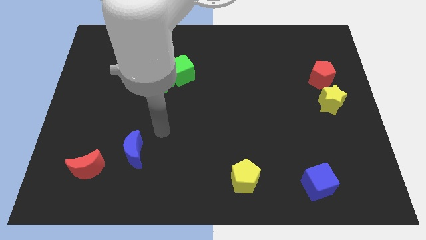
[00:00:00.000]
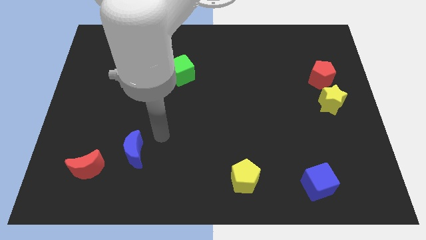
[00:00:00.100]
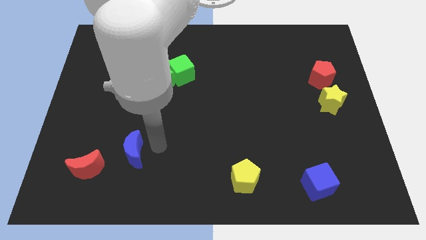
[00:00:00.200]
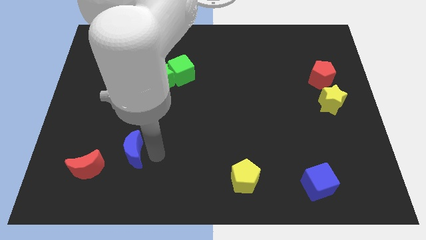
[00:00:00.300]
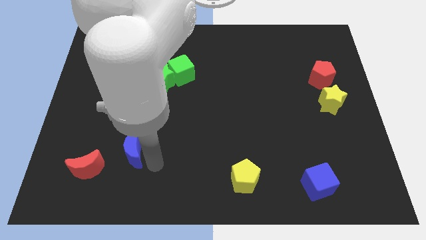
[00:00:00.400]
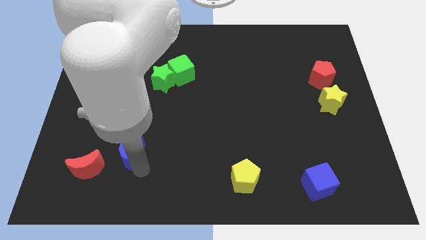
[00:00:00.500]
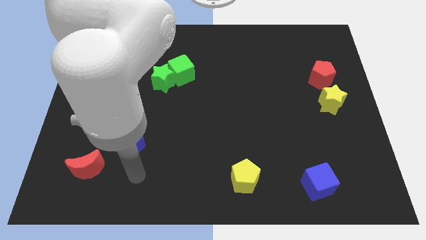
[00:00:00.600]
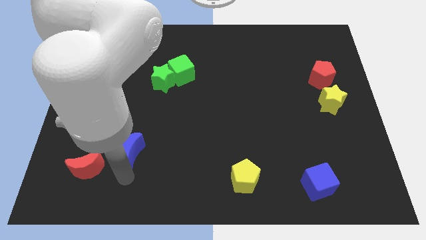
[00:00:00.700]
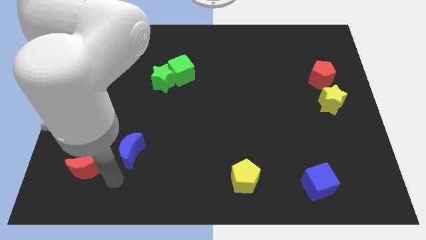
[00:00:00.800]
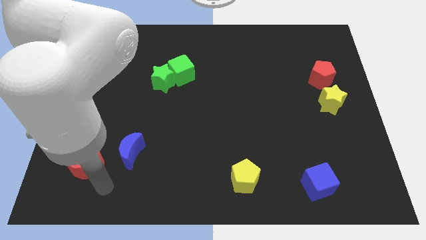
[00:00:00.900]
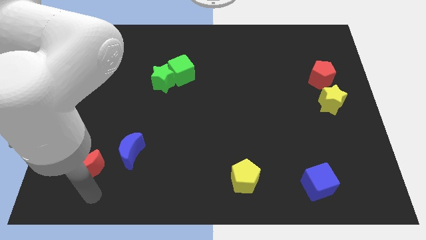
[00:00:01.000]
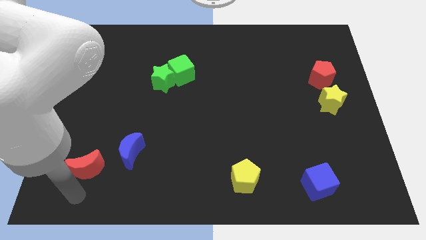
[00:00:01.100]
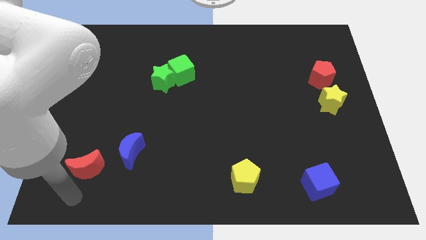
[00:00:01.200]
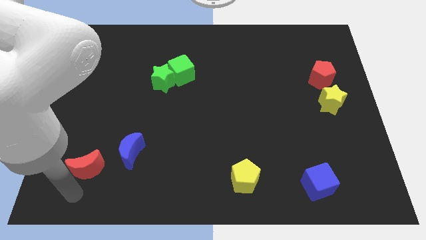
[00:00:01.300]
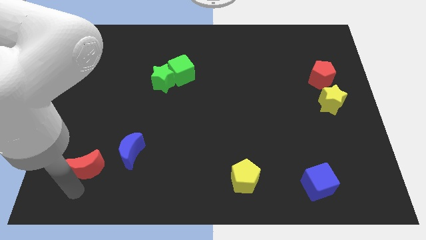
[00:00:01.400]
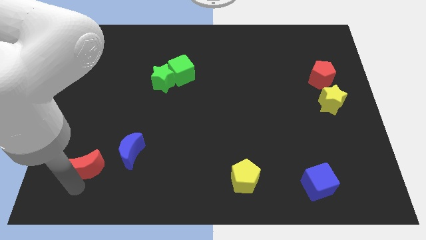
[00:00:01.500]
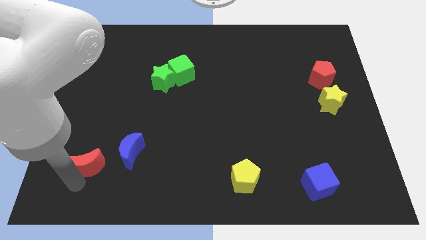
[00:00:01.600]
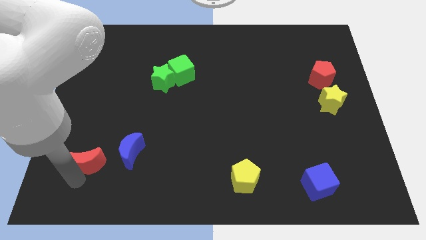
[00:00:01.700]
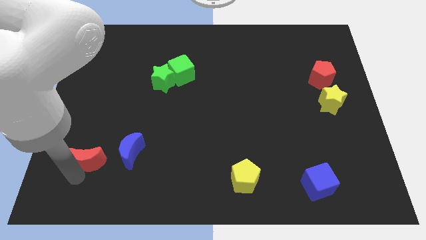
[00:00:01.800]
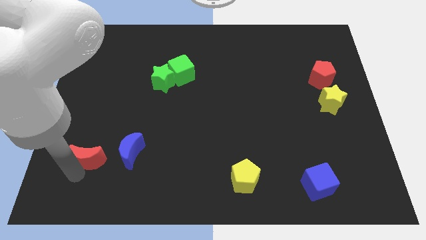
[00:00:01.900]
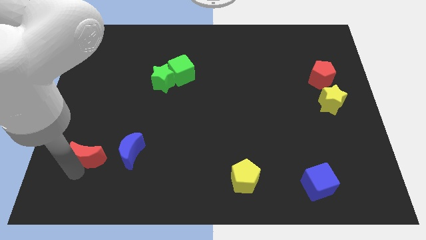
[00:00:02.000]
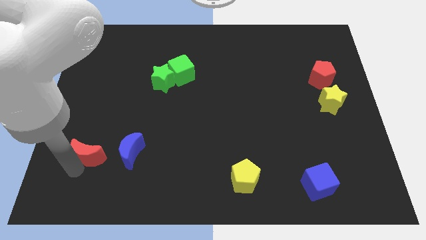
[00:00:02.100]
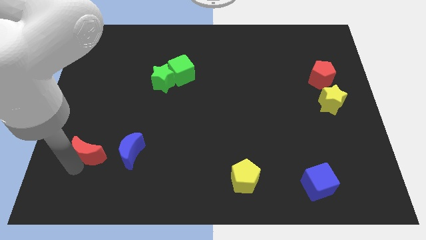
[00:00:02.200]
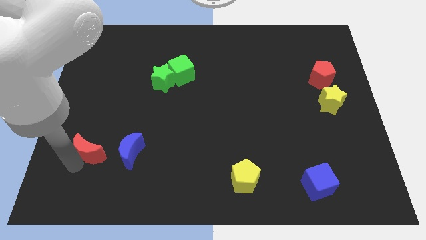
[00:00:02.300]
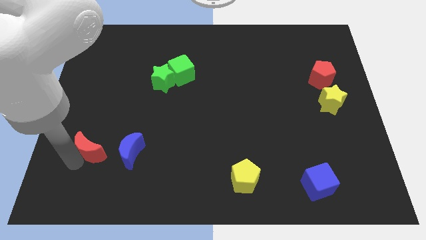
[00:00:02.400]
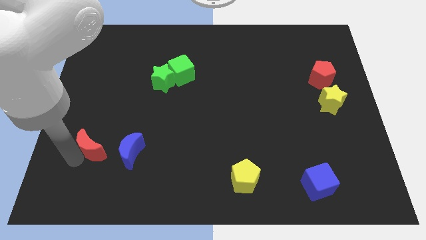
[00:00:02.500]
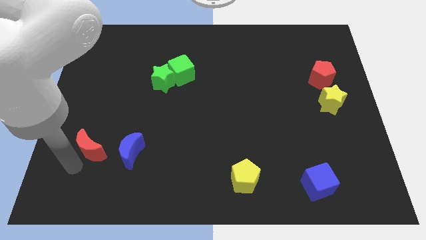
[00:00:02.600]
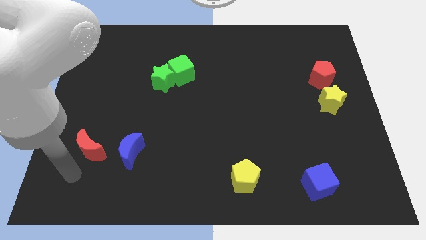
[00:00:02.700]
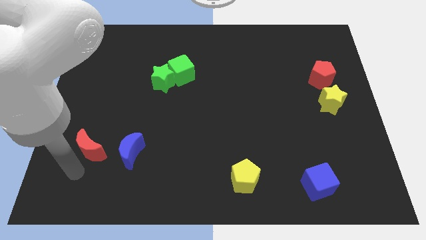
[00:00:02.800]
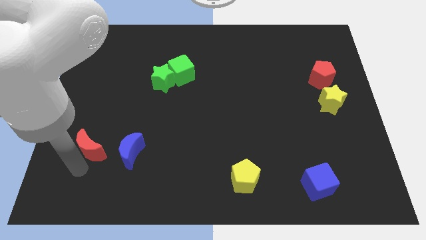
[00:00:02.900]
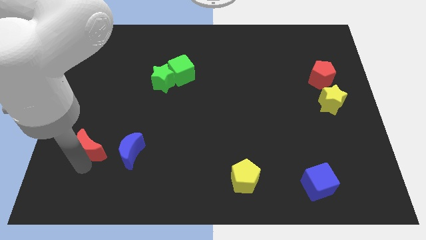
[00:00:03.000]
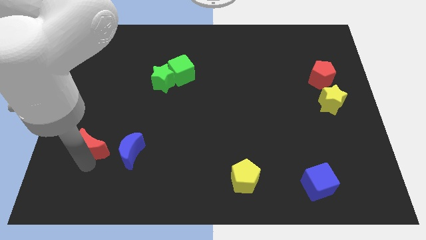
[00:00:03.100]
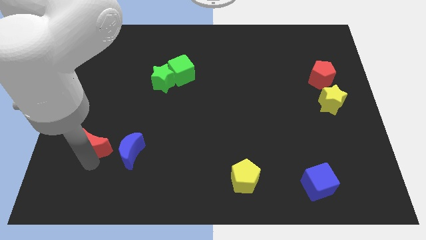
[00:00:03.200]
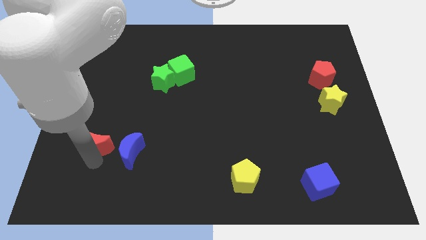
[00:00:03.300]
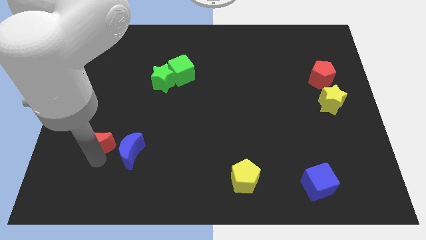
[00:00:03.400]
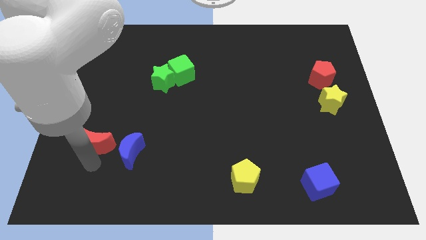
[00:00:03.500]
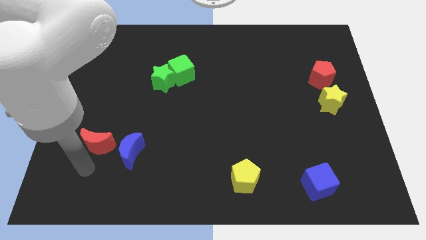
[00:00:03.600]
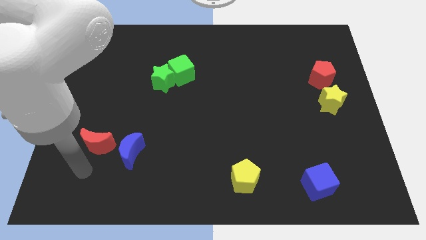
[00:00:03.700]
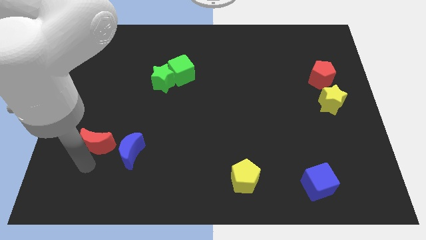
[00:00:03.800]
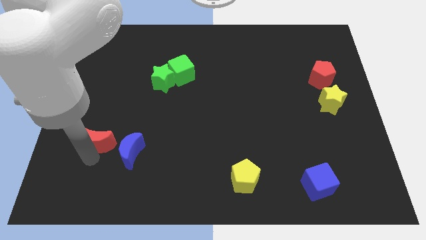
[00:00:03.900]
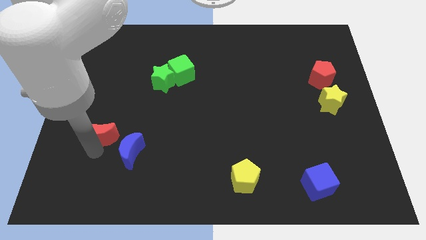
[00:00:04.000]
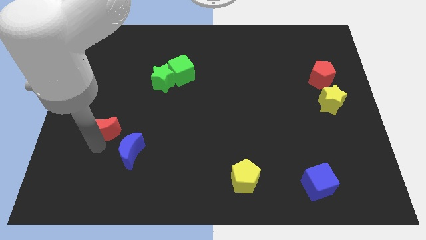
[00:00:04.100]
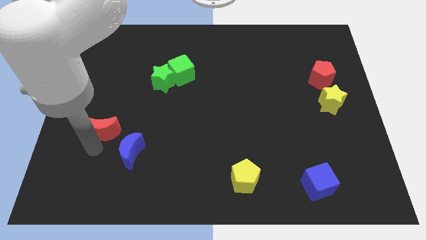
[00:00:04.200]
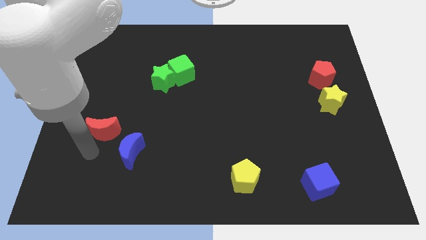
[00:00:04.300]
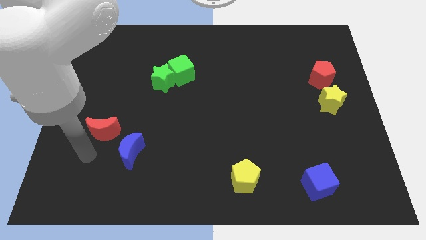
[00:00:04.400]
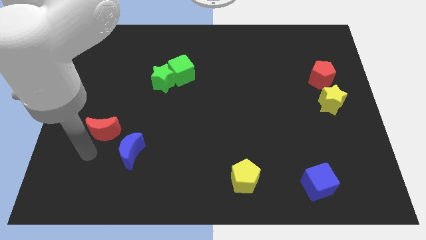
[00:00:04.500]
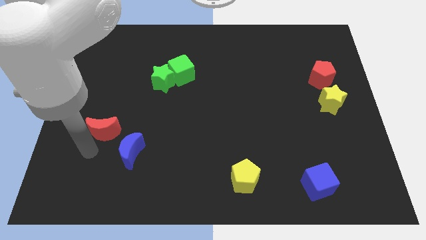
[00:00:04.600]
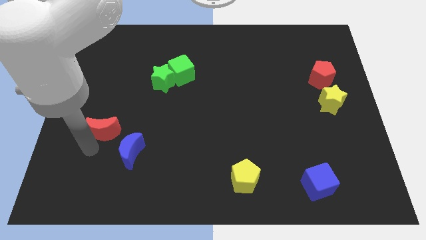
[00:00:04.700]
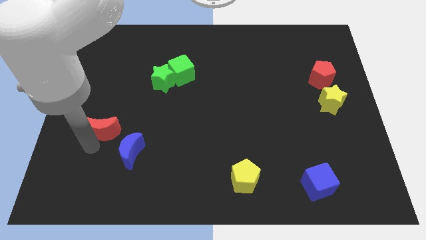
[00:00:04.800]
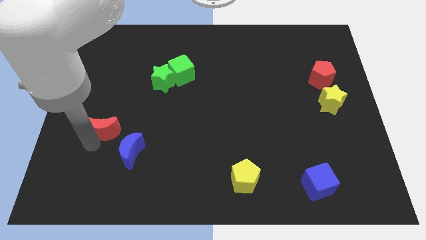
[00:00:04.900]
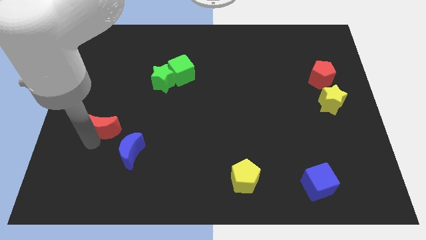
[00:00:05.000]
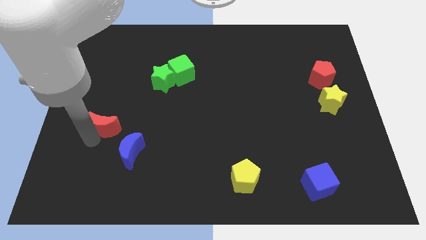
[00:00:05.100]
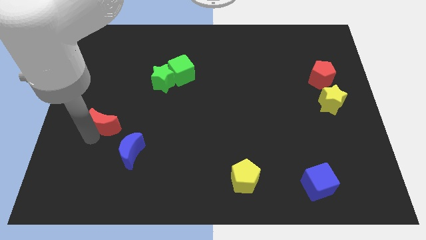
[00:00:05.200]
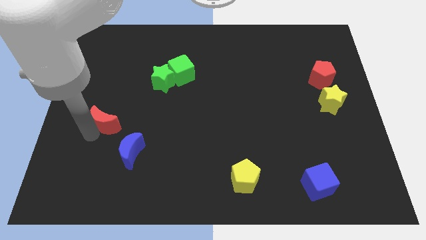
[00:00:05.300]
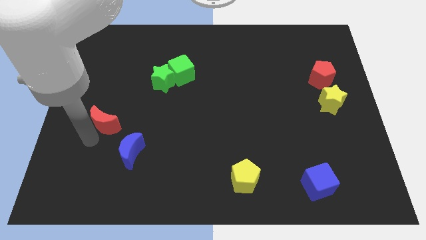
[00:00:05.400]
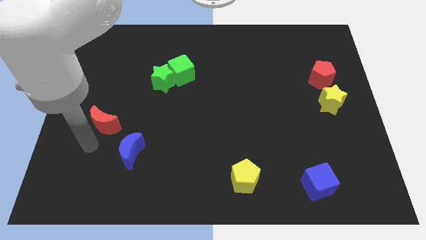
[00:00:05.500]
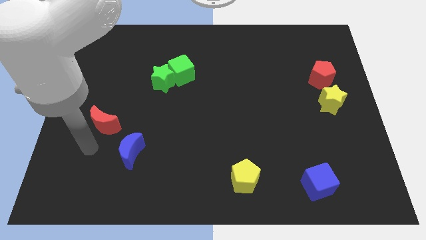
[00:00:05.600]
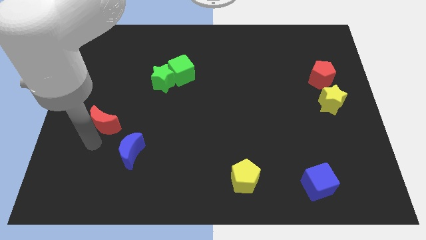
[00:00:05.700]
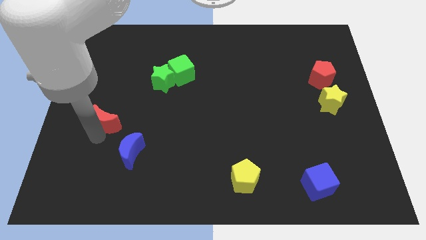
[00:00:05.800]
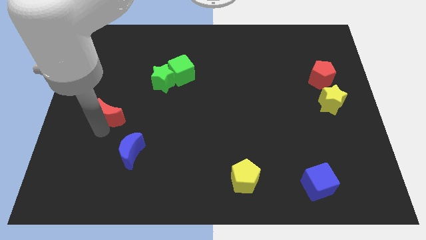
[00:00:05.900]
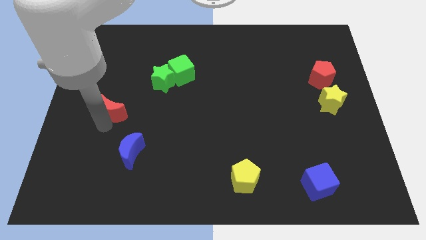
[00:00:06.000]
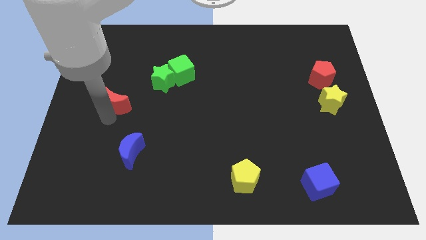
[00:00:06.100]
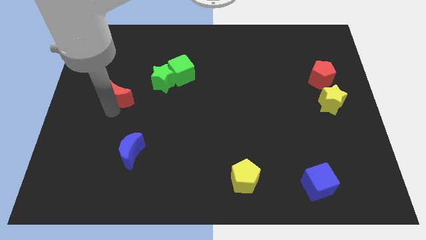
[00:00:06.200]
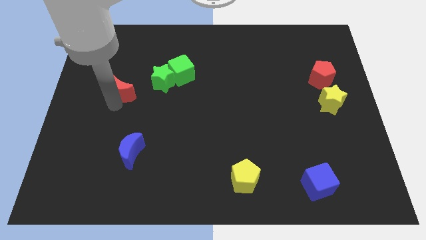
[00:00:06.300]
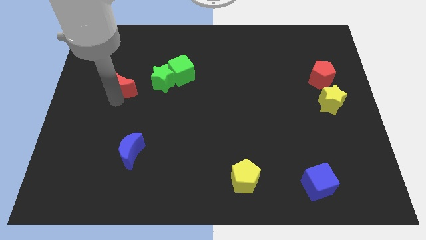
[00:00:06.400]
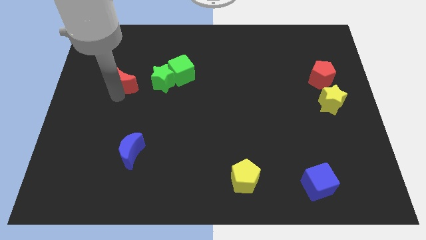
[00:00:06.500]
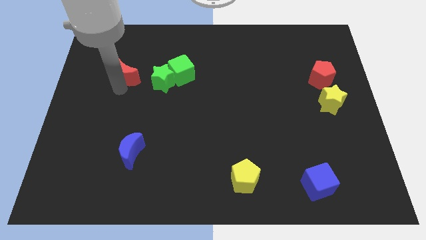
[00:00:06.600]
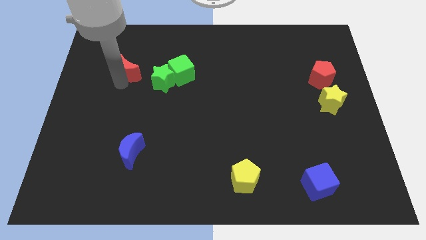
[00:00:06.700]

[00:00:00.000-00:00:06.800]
move the red moon diagonally up and to the left of the green star

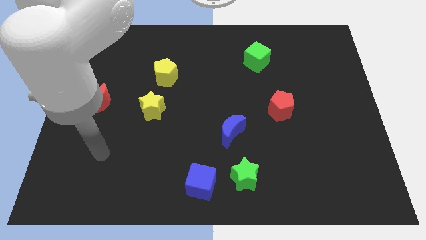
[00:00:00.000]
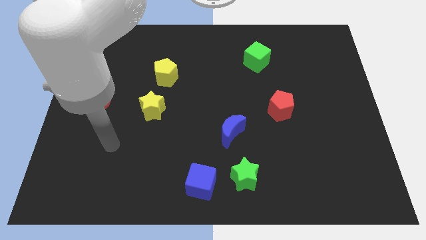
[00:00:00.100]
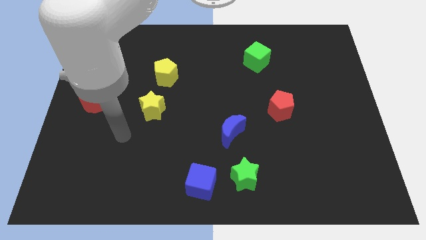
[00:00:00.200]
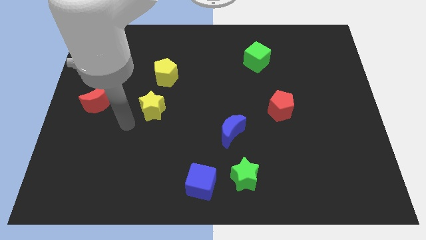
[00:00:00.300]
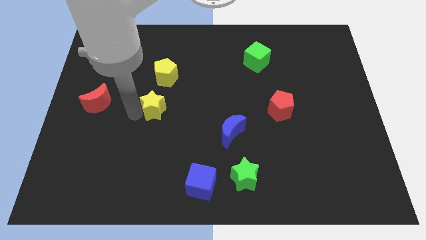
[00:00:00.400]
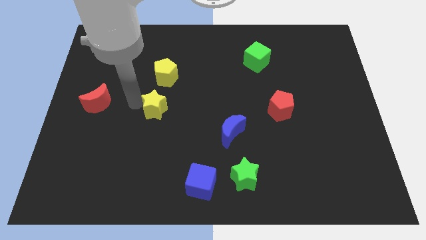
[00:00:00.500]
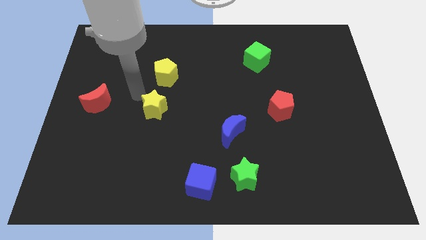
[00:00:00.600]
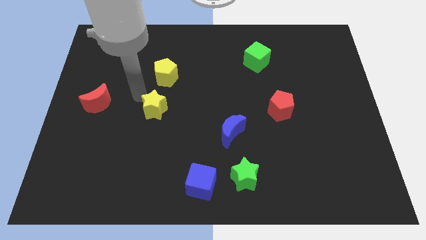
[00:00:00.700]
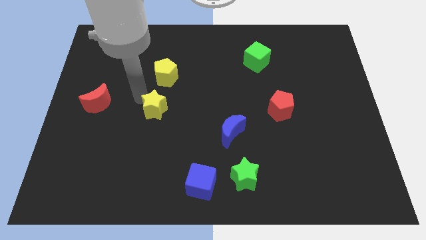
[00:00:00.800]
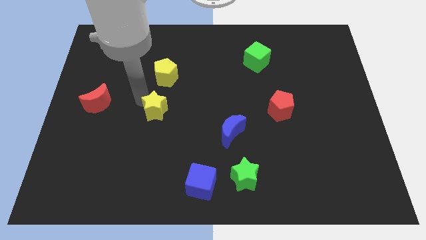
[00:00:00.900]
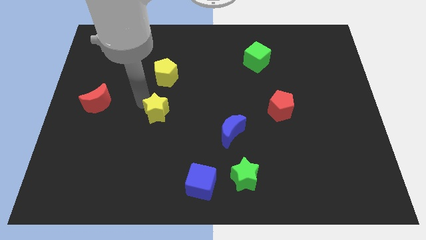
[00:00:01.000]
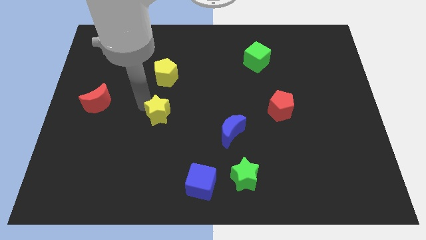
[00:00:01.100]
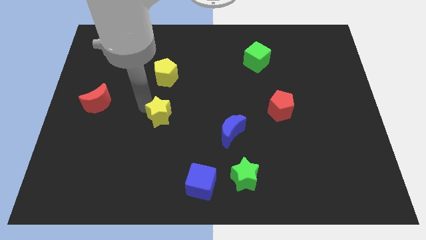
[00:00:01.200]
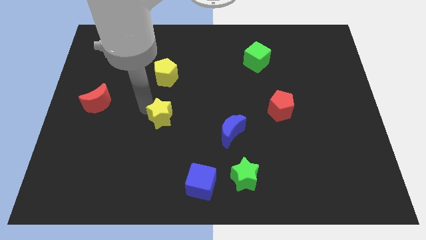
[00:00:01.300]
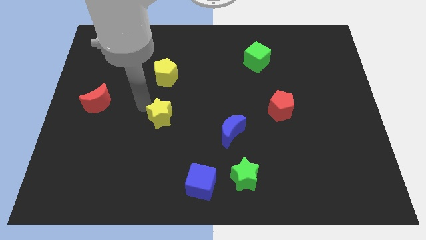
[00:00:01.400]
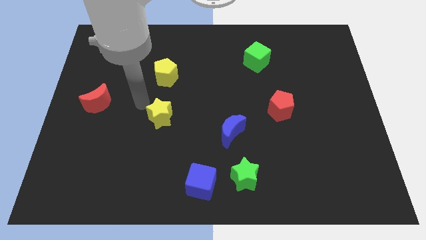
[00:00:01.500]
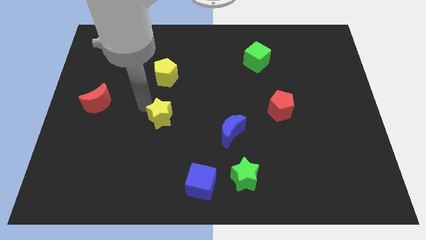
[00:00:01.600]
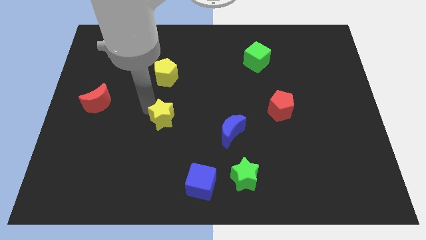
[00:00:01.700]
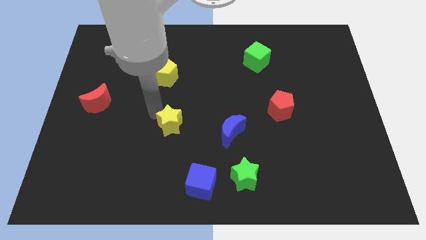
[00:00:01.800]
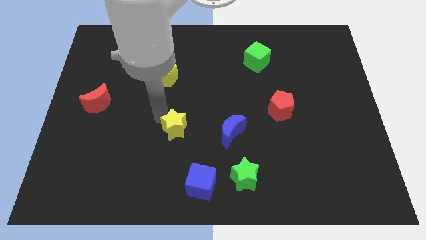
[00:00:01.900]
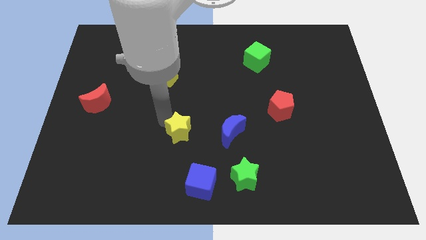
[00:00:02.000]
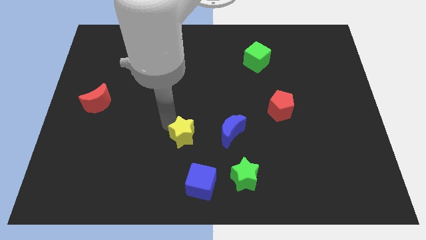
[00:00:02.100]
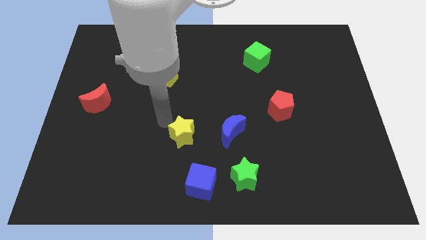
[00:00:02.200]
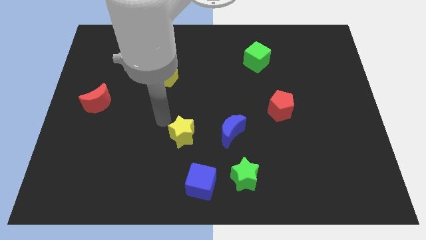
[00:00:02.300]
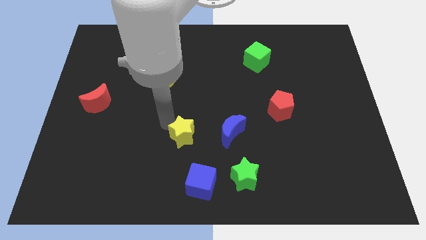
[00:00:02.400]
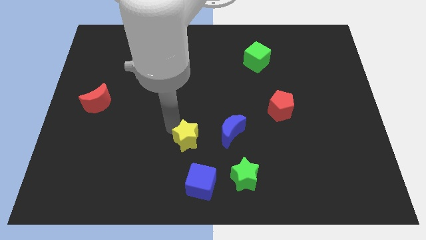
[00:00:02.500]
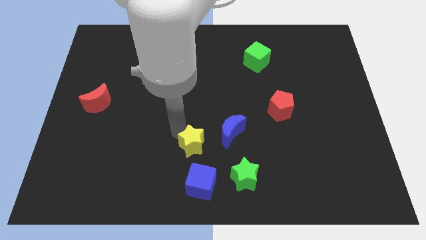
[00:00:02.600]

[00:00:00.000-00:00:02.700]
push the yellow star to the bottom left side of the blue moon
